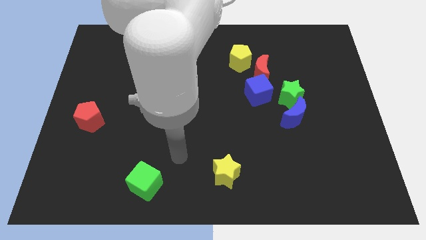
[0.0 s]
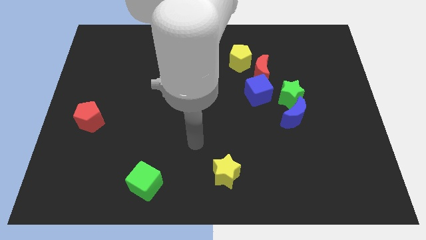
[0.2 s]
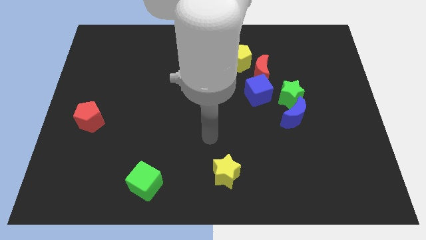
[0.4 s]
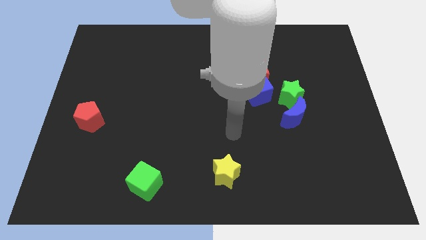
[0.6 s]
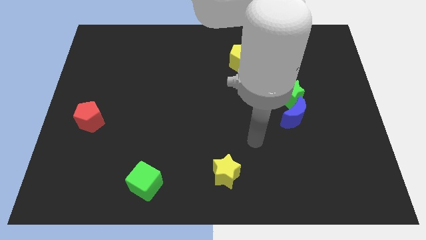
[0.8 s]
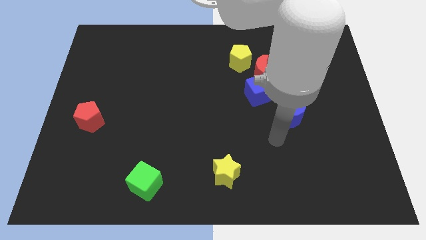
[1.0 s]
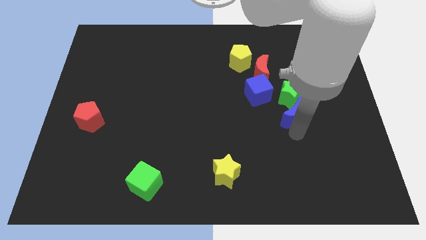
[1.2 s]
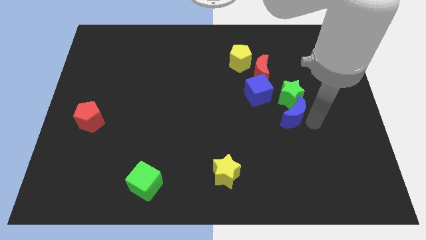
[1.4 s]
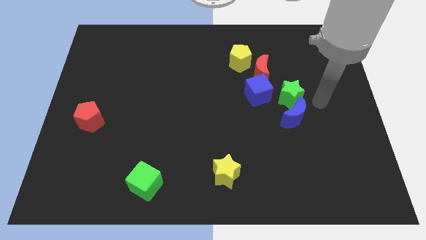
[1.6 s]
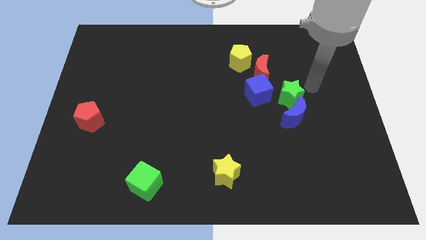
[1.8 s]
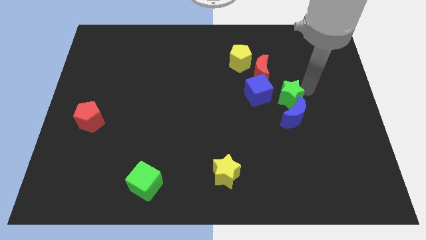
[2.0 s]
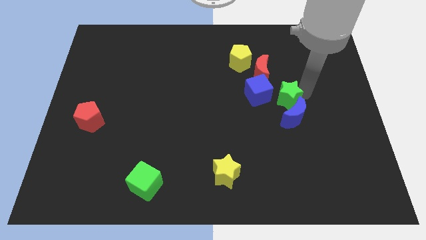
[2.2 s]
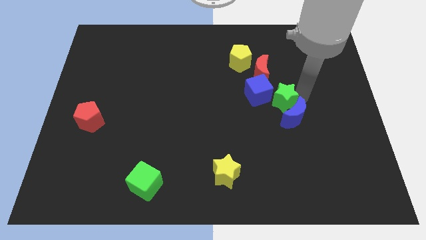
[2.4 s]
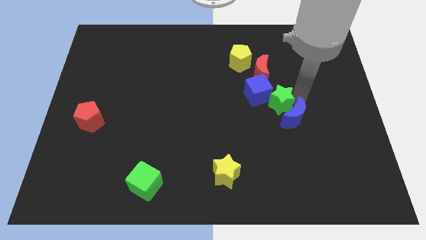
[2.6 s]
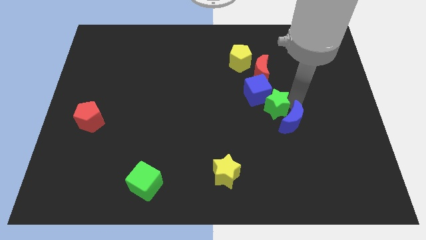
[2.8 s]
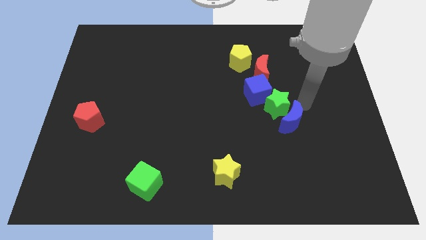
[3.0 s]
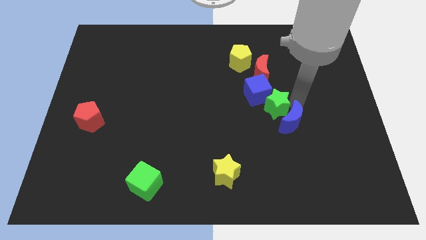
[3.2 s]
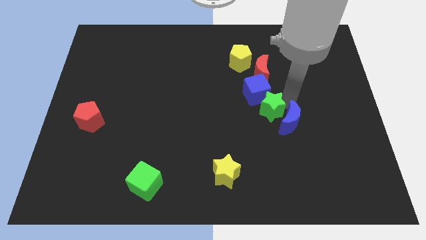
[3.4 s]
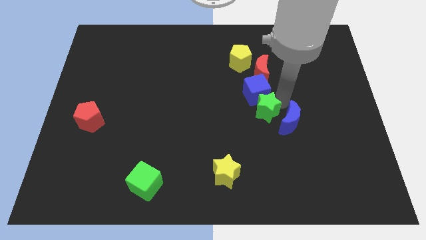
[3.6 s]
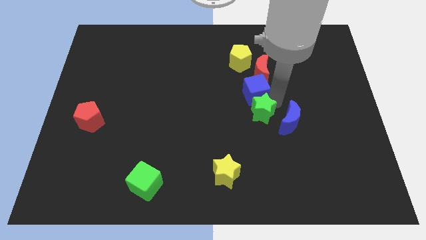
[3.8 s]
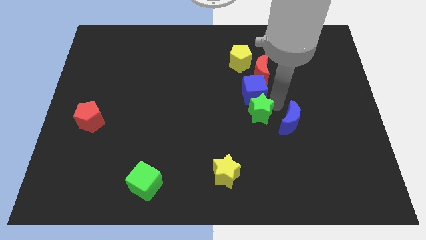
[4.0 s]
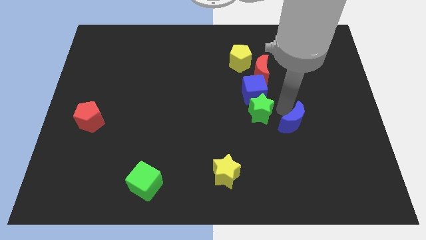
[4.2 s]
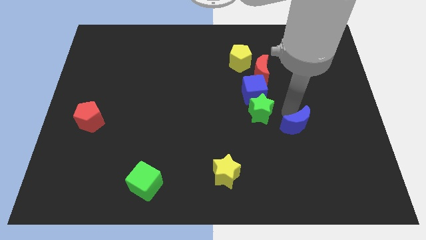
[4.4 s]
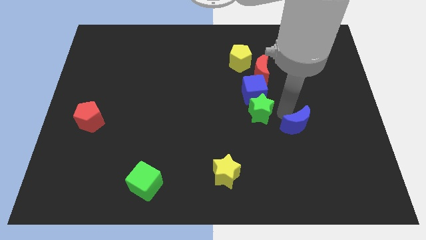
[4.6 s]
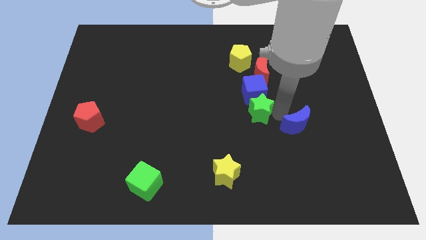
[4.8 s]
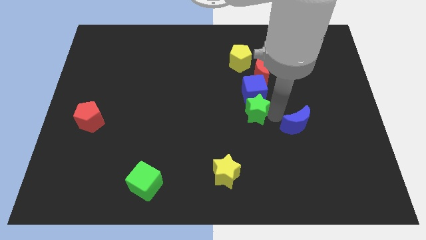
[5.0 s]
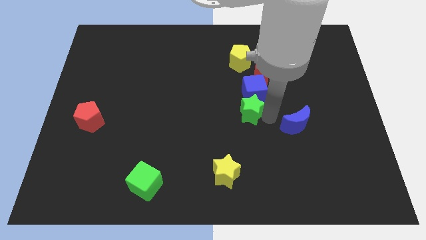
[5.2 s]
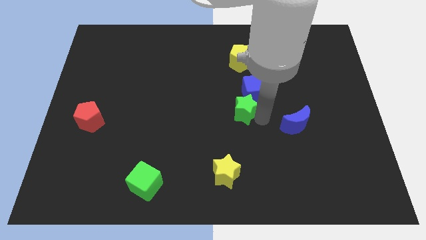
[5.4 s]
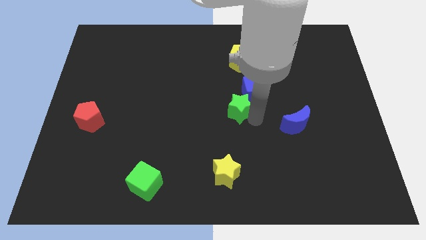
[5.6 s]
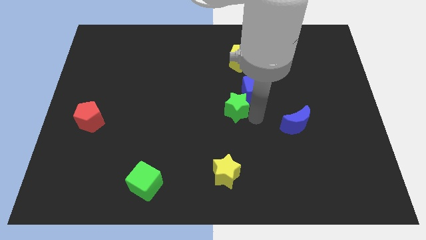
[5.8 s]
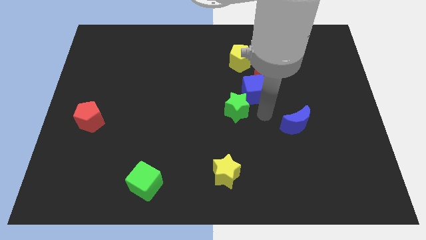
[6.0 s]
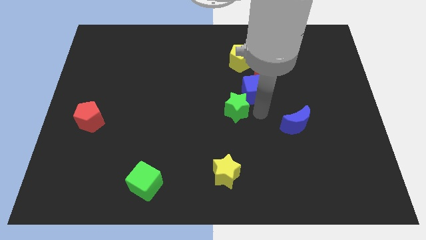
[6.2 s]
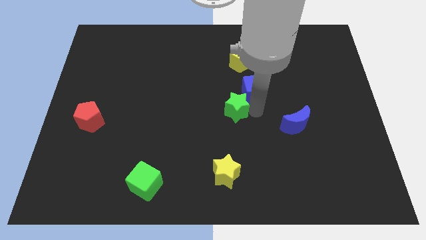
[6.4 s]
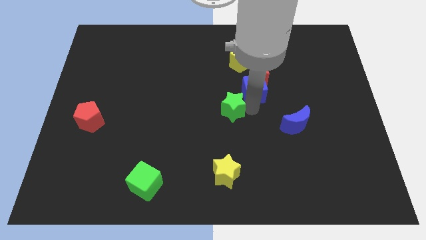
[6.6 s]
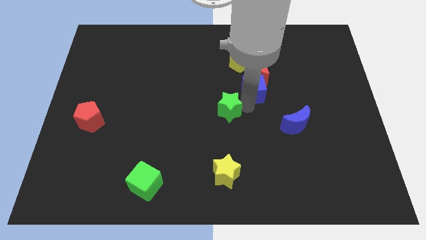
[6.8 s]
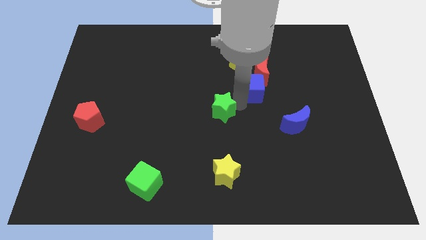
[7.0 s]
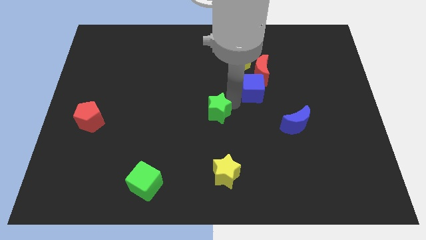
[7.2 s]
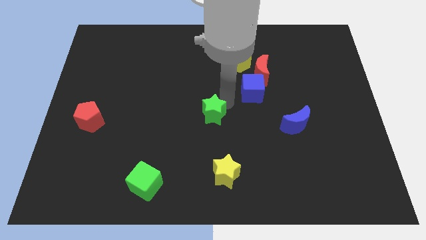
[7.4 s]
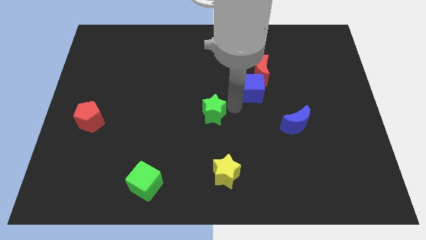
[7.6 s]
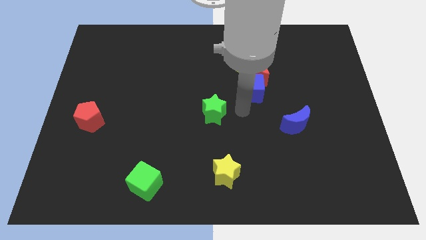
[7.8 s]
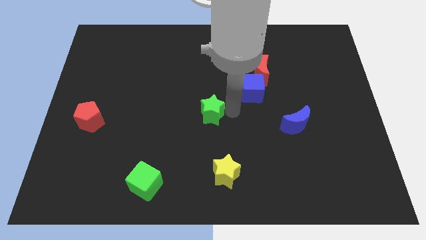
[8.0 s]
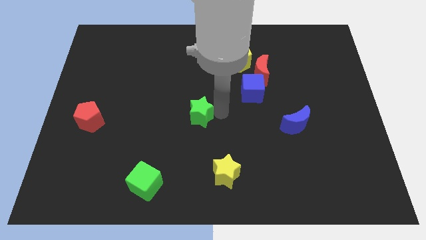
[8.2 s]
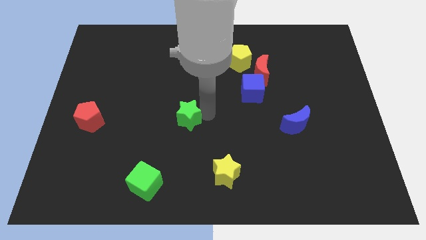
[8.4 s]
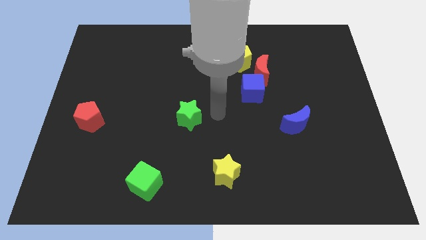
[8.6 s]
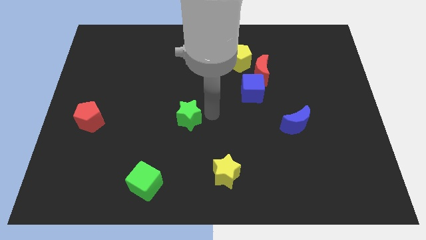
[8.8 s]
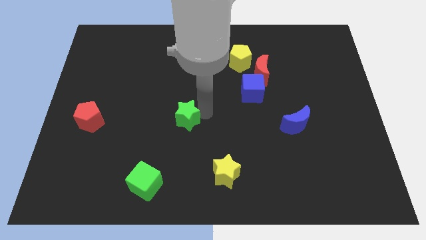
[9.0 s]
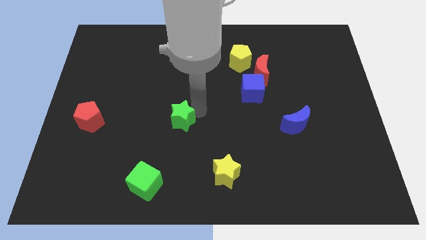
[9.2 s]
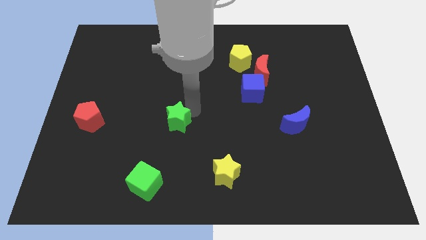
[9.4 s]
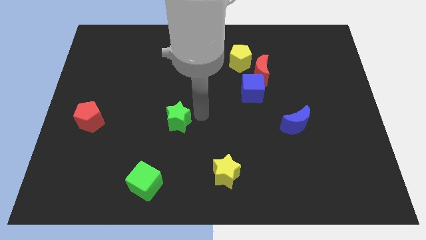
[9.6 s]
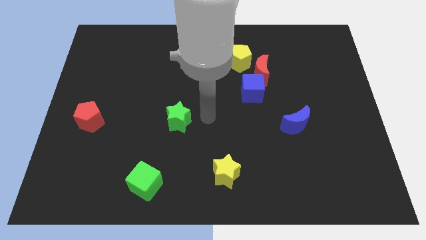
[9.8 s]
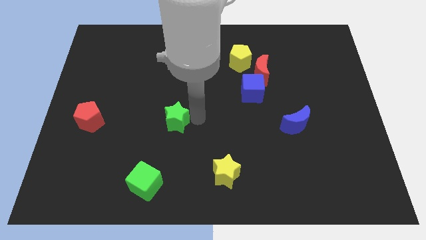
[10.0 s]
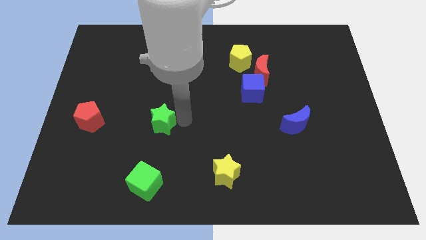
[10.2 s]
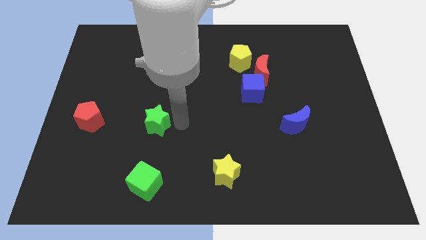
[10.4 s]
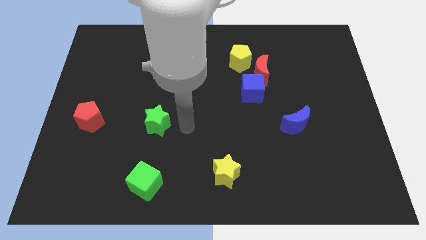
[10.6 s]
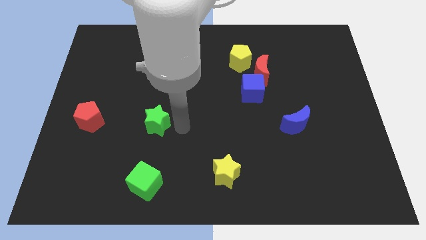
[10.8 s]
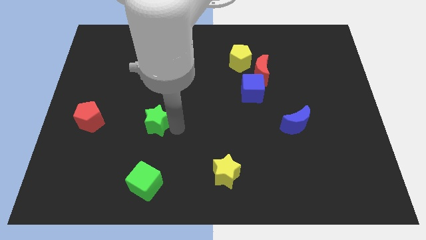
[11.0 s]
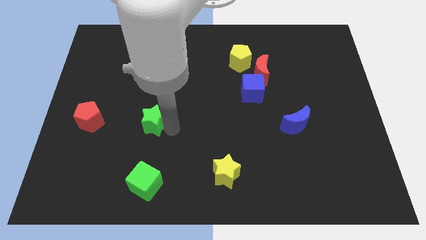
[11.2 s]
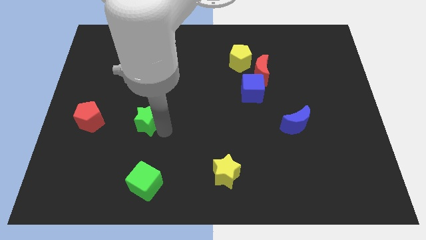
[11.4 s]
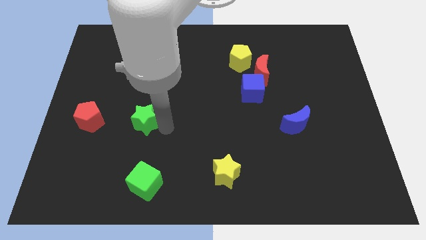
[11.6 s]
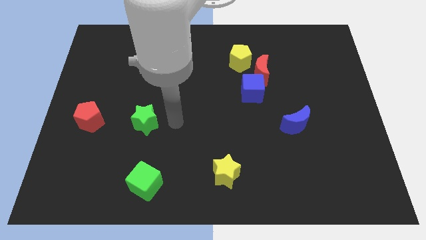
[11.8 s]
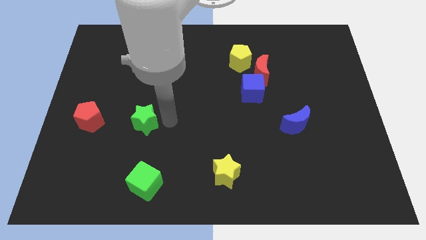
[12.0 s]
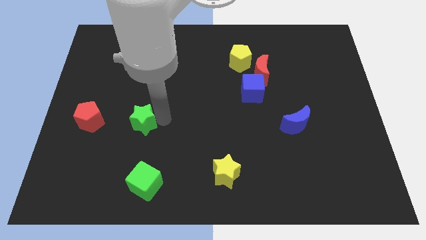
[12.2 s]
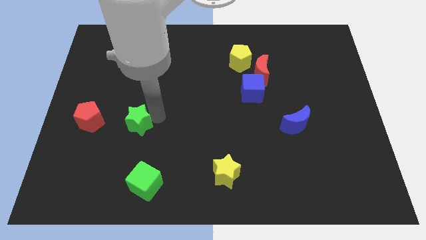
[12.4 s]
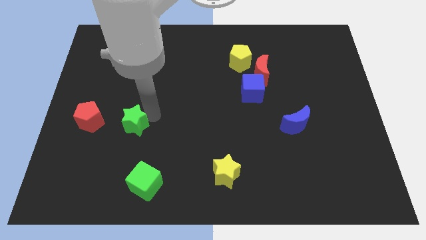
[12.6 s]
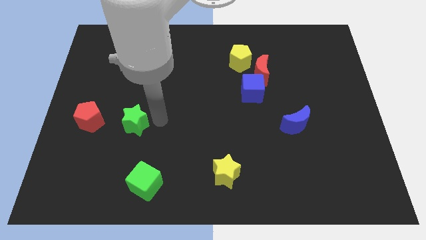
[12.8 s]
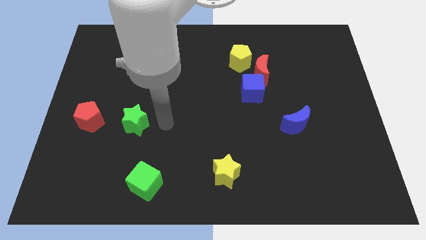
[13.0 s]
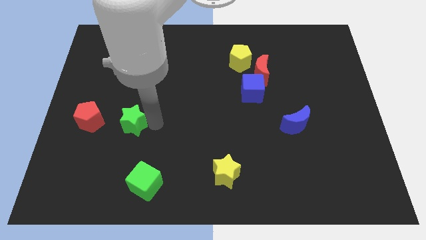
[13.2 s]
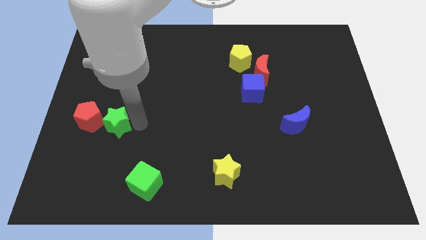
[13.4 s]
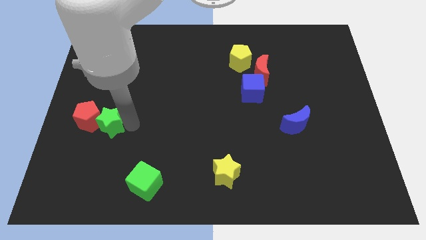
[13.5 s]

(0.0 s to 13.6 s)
move the green star to the red pentagon
